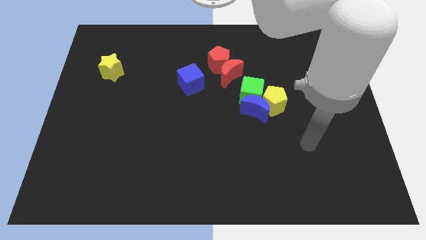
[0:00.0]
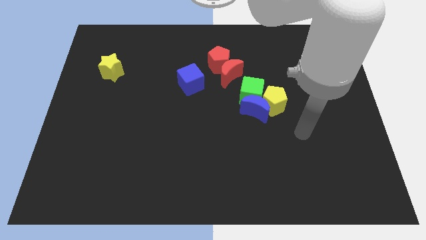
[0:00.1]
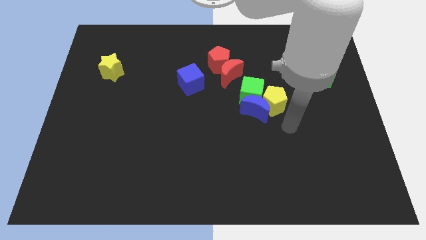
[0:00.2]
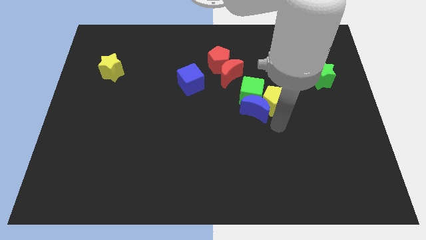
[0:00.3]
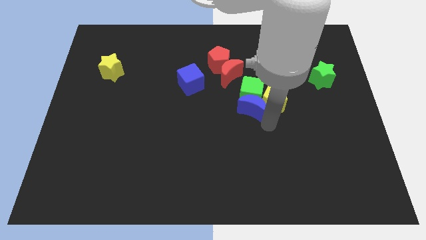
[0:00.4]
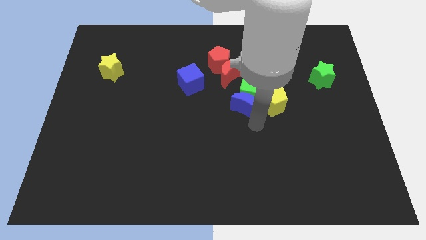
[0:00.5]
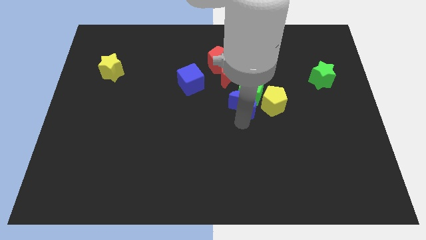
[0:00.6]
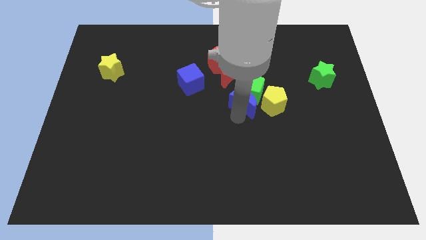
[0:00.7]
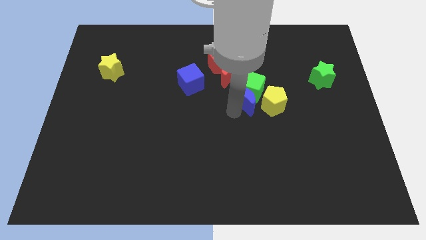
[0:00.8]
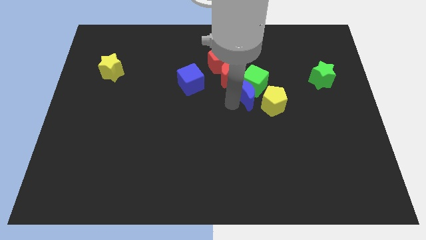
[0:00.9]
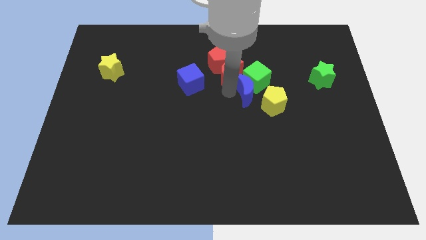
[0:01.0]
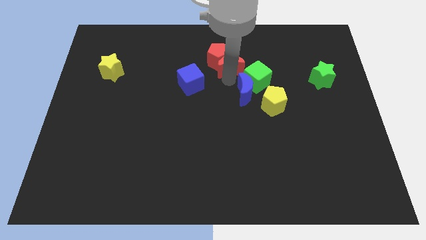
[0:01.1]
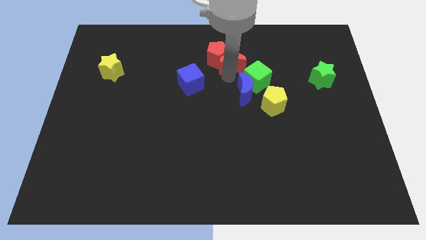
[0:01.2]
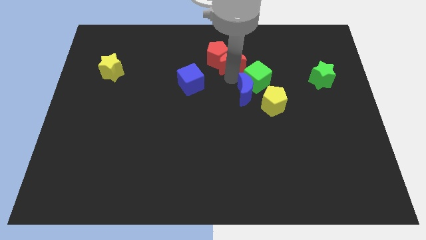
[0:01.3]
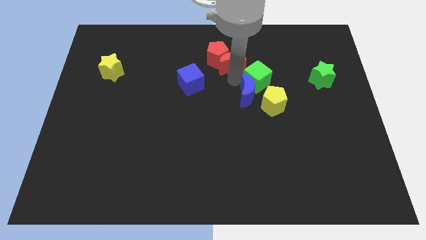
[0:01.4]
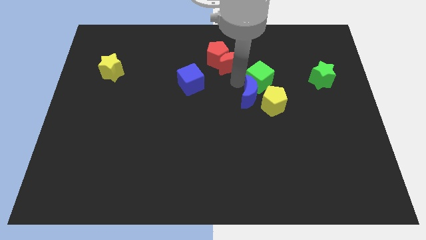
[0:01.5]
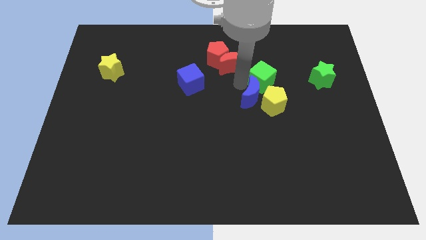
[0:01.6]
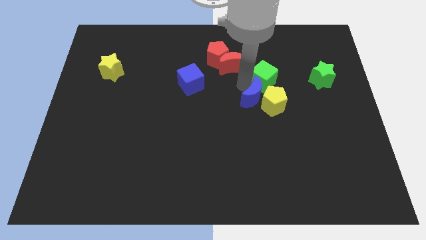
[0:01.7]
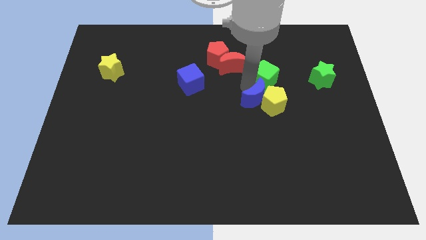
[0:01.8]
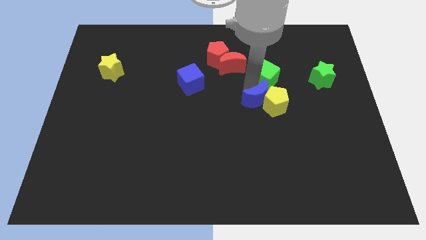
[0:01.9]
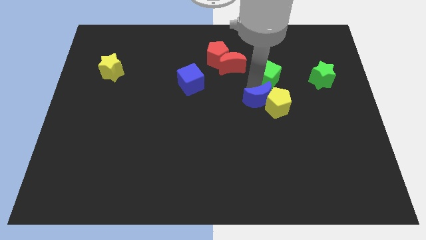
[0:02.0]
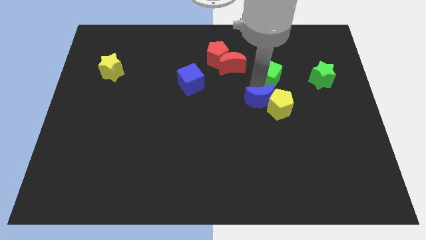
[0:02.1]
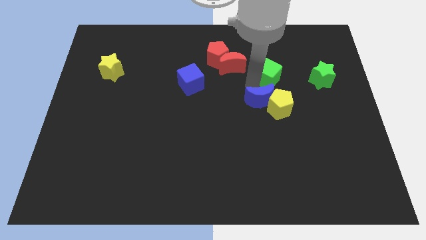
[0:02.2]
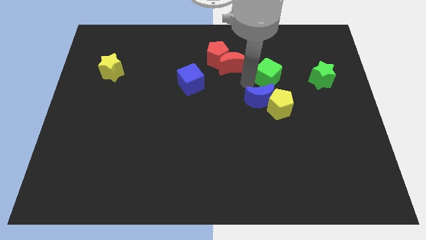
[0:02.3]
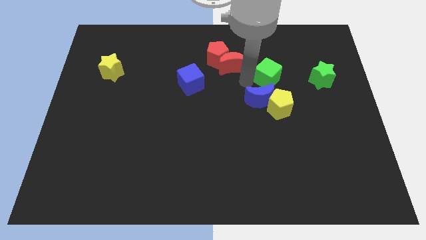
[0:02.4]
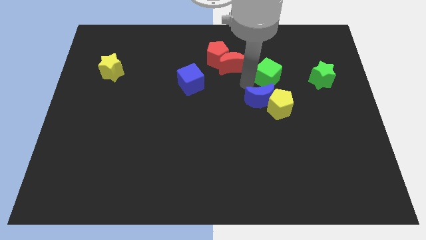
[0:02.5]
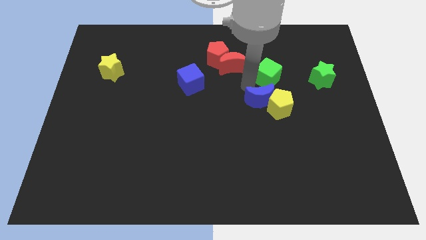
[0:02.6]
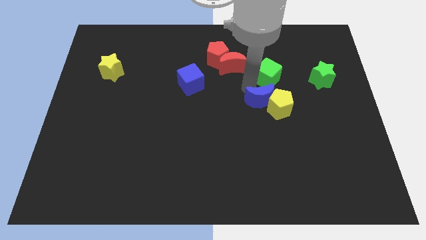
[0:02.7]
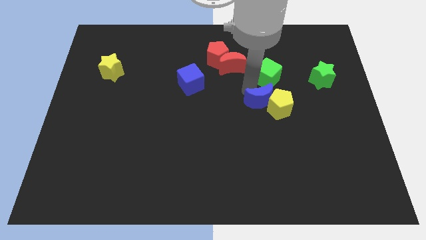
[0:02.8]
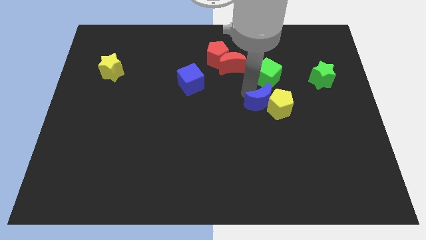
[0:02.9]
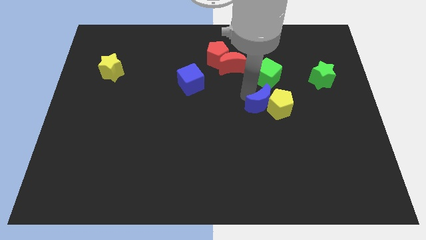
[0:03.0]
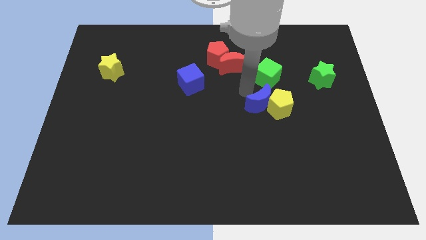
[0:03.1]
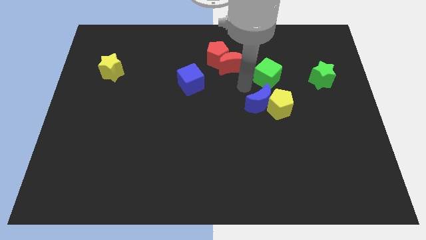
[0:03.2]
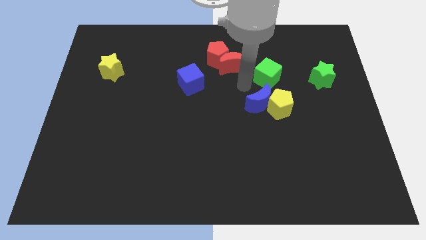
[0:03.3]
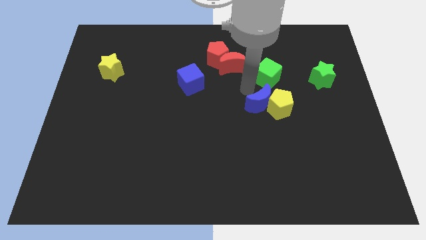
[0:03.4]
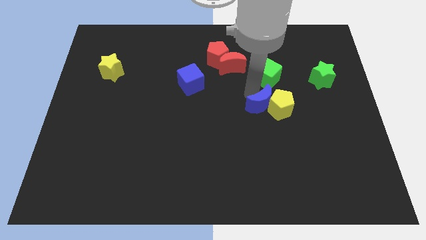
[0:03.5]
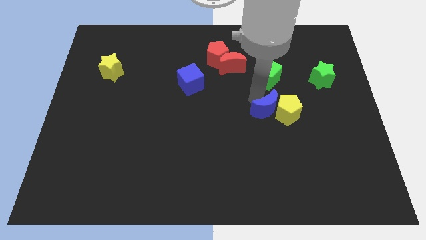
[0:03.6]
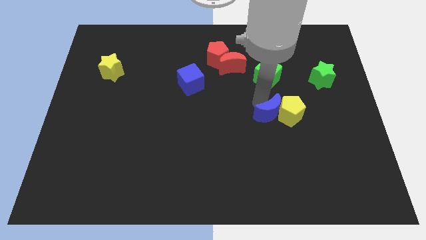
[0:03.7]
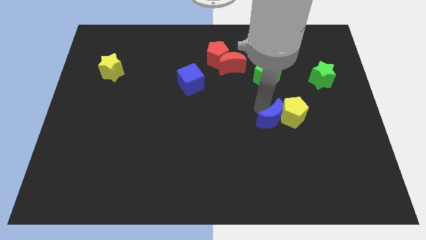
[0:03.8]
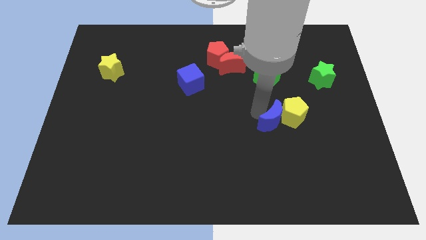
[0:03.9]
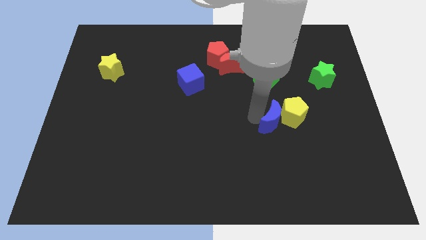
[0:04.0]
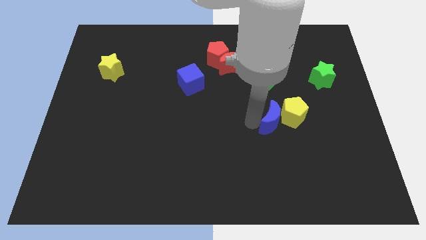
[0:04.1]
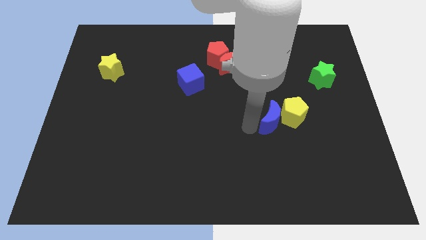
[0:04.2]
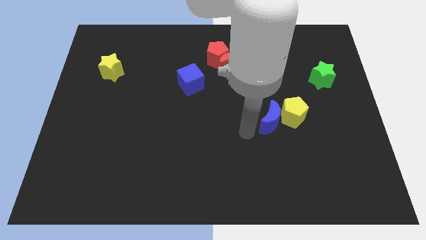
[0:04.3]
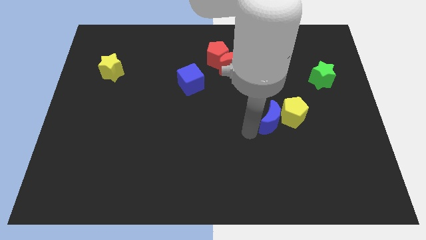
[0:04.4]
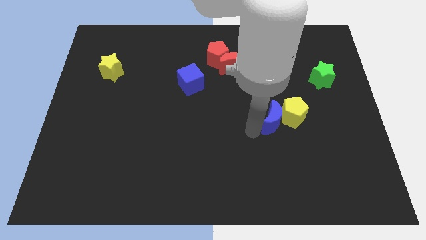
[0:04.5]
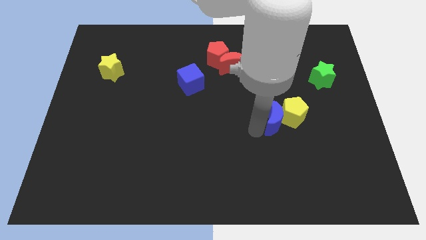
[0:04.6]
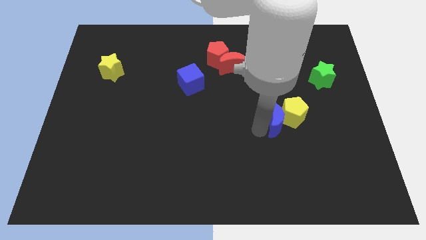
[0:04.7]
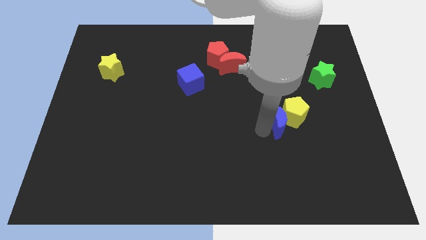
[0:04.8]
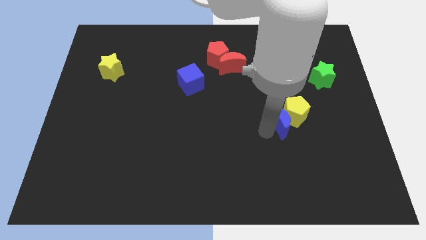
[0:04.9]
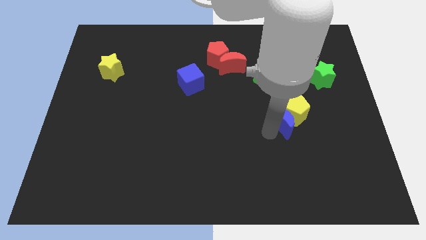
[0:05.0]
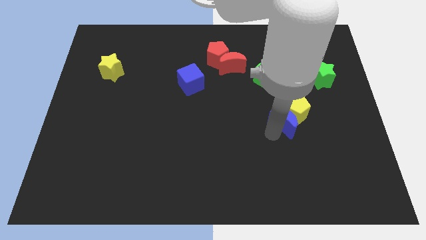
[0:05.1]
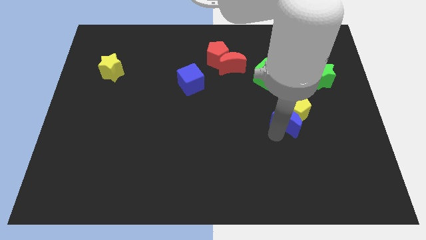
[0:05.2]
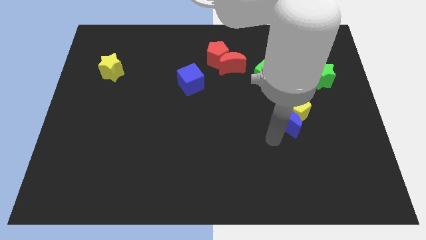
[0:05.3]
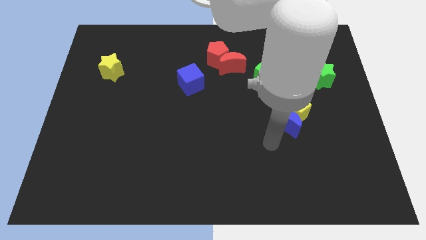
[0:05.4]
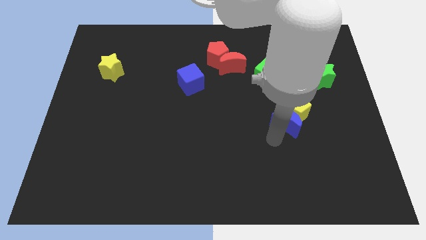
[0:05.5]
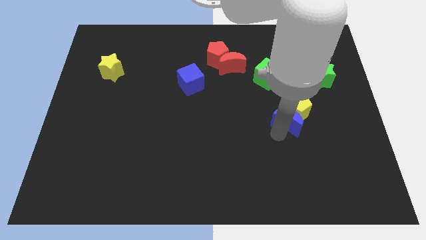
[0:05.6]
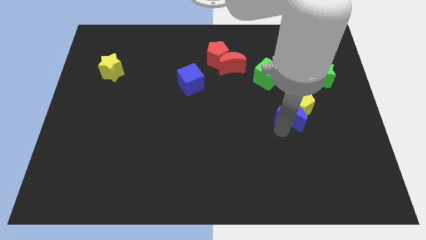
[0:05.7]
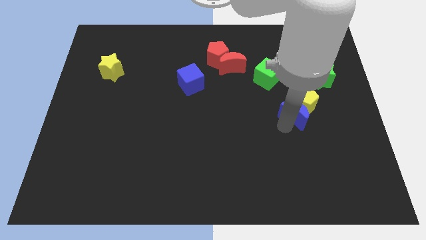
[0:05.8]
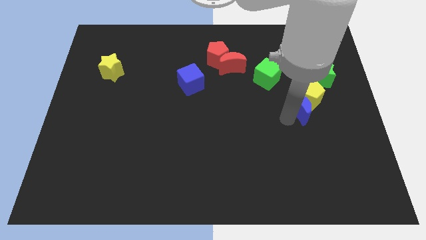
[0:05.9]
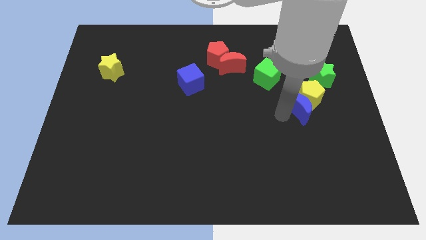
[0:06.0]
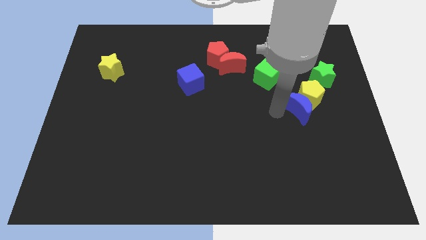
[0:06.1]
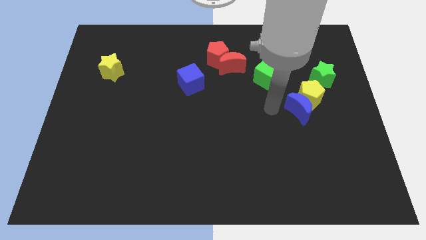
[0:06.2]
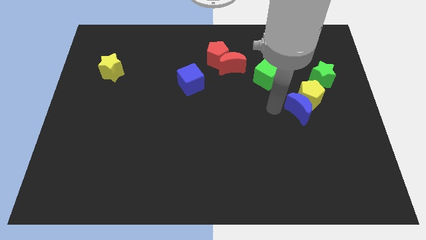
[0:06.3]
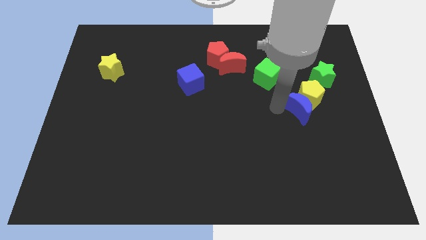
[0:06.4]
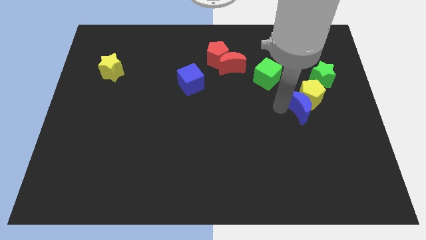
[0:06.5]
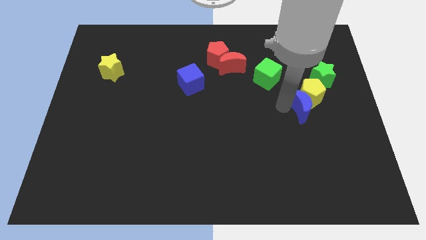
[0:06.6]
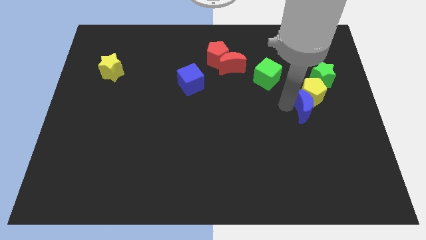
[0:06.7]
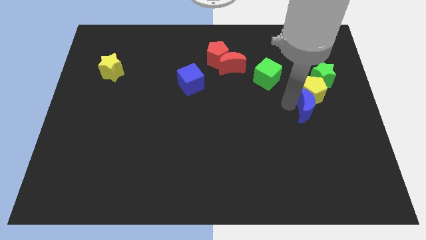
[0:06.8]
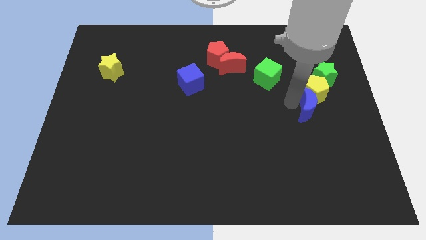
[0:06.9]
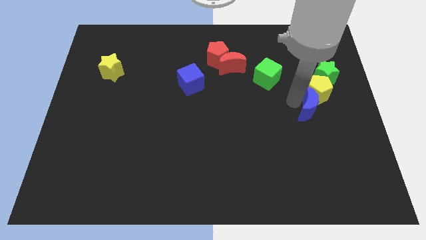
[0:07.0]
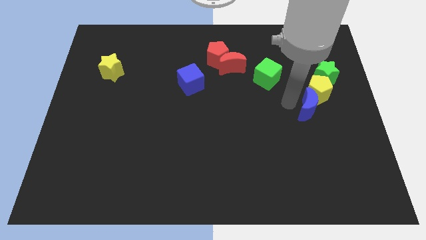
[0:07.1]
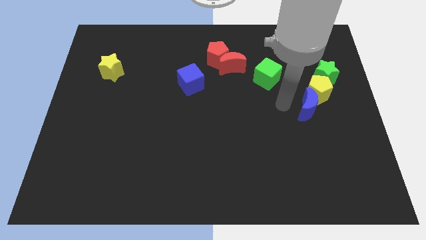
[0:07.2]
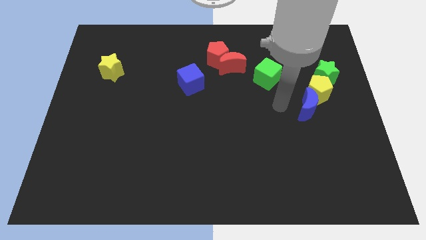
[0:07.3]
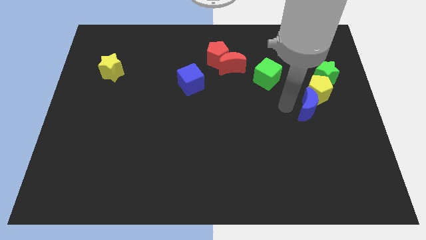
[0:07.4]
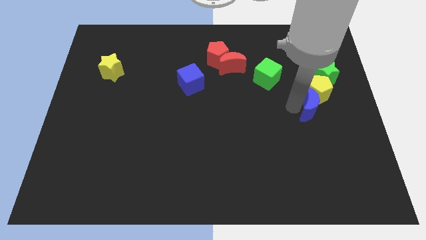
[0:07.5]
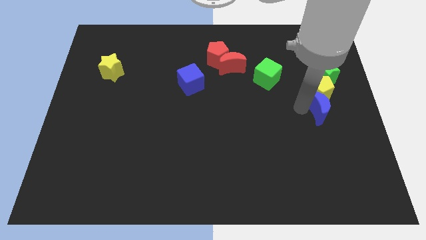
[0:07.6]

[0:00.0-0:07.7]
move the blue moon to the bottom of the green star

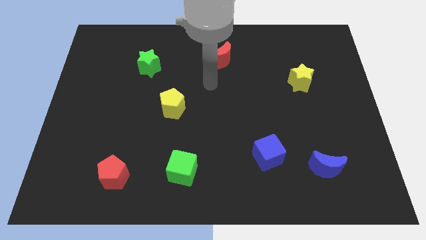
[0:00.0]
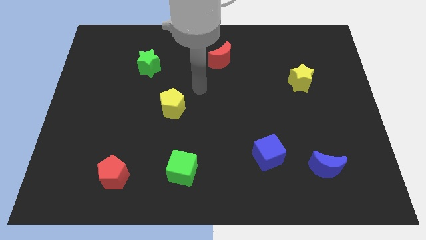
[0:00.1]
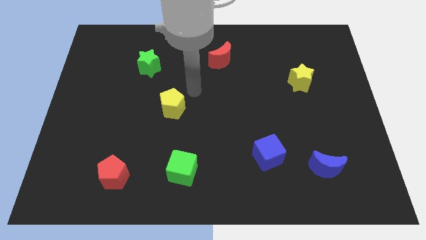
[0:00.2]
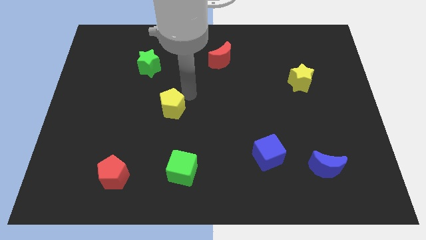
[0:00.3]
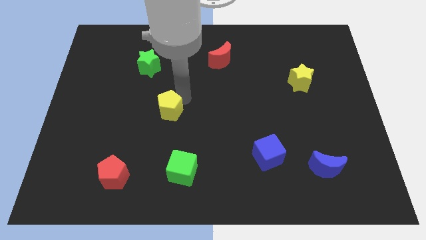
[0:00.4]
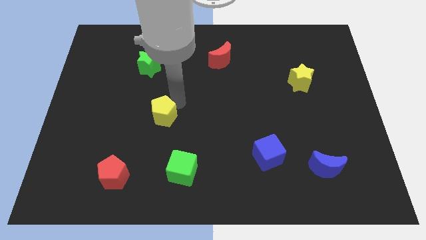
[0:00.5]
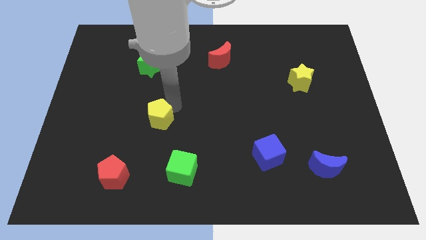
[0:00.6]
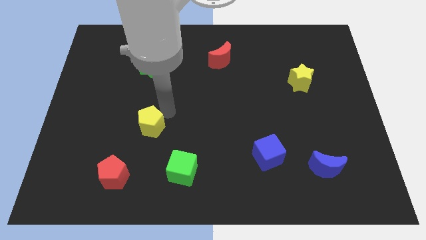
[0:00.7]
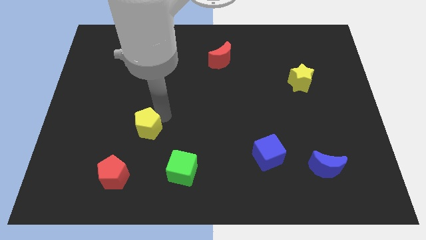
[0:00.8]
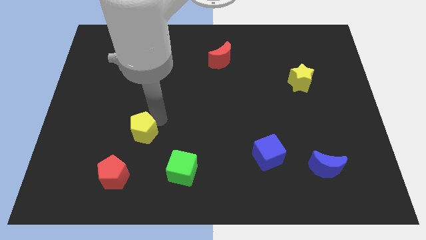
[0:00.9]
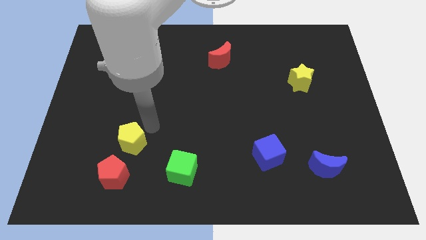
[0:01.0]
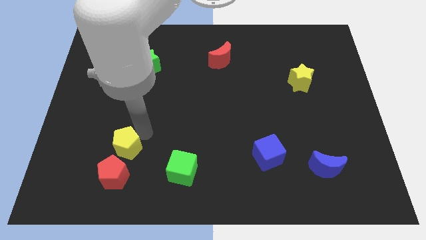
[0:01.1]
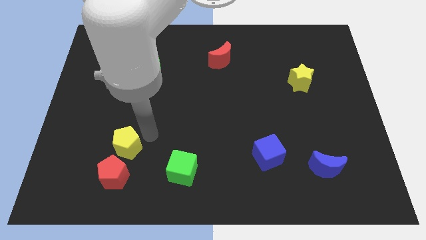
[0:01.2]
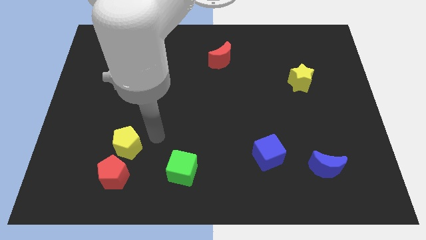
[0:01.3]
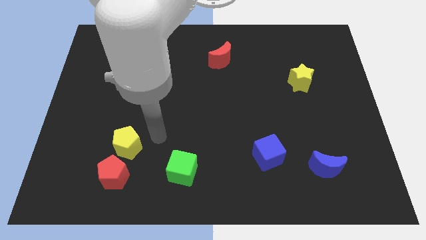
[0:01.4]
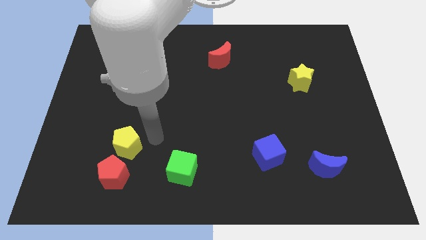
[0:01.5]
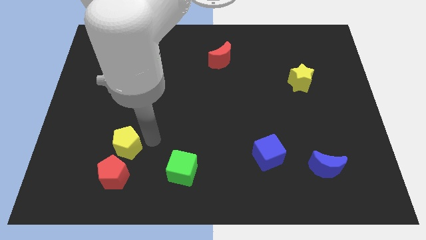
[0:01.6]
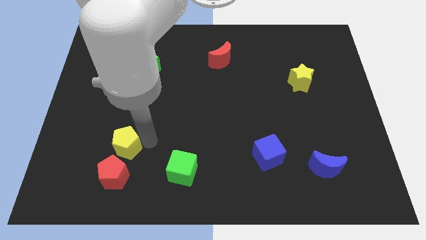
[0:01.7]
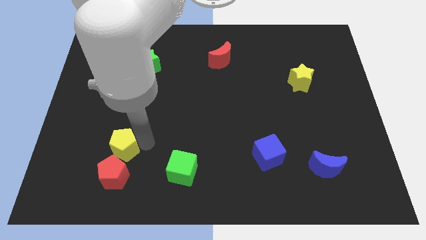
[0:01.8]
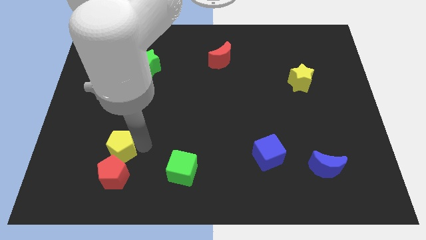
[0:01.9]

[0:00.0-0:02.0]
slide the yellow pentagon to the top left of the red pentagon
